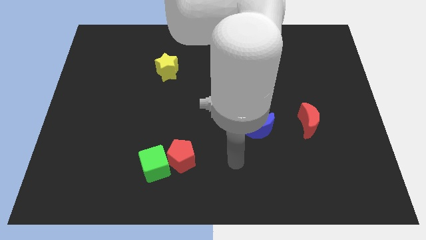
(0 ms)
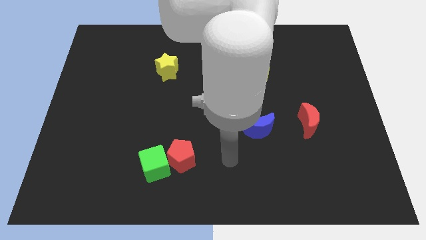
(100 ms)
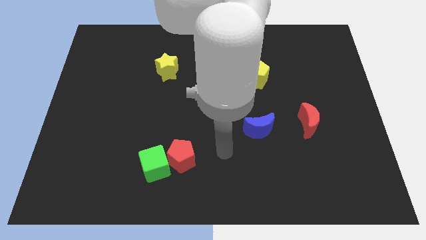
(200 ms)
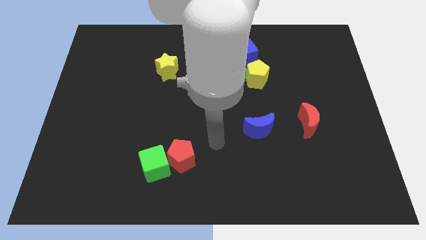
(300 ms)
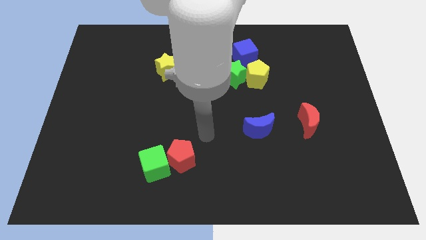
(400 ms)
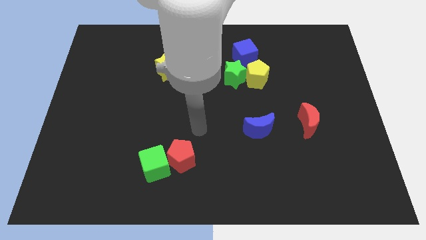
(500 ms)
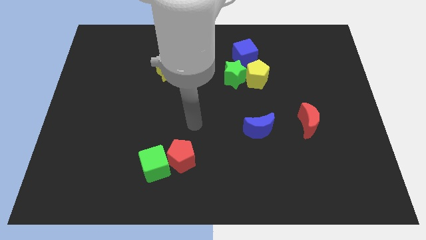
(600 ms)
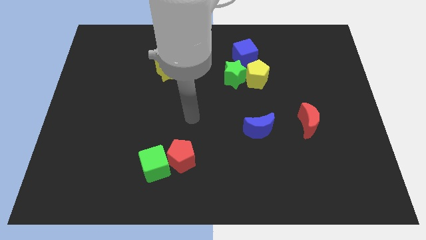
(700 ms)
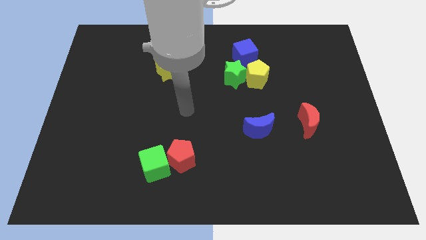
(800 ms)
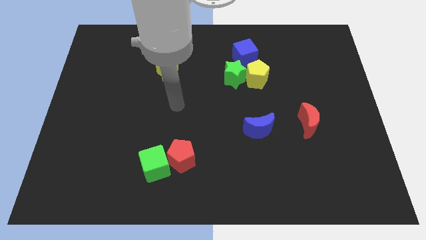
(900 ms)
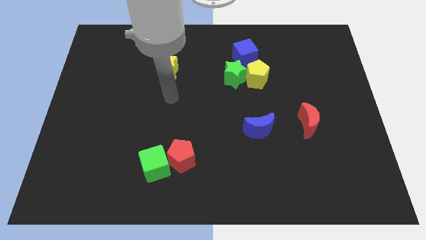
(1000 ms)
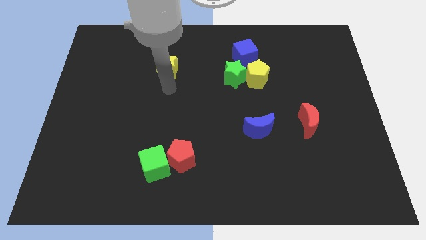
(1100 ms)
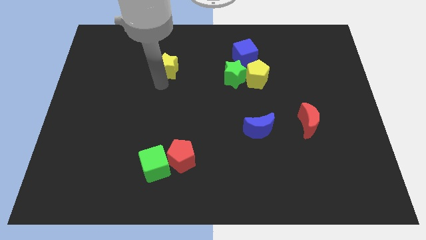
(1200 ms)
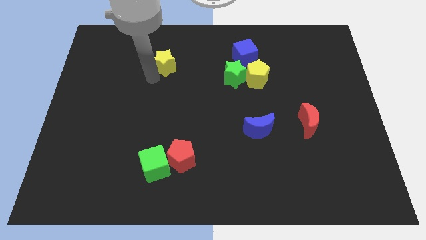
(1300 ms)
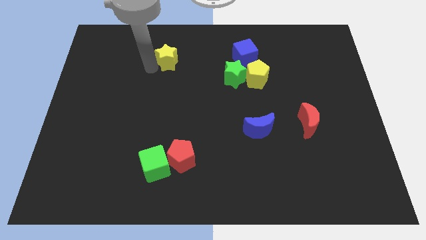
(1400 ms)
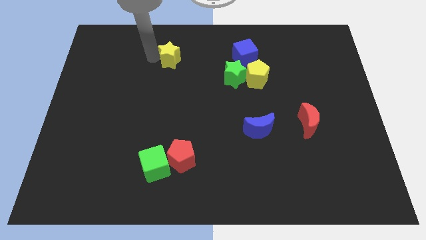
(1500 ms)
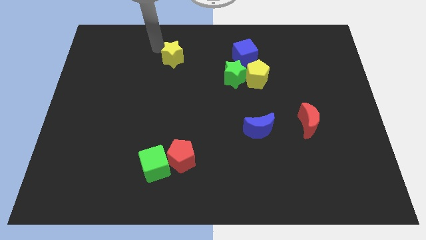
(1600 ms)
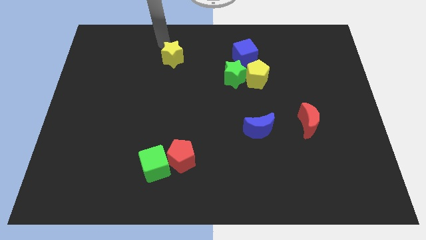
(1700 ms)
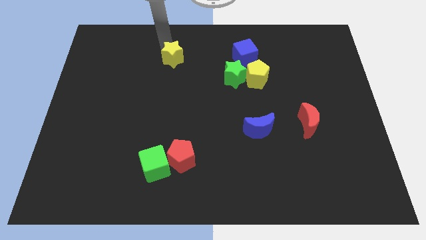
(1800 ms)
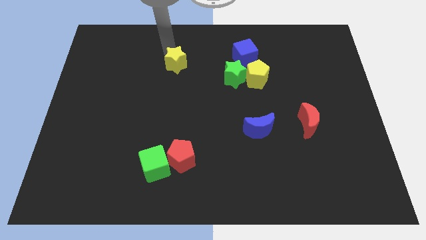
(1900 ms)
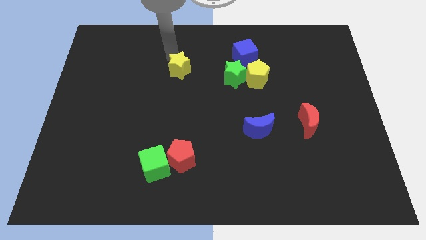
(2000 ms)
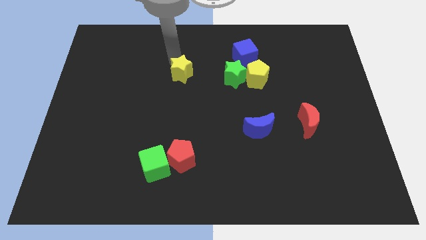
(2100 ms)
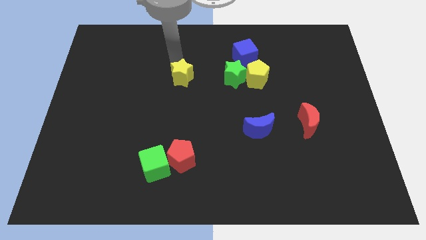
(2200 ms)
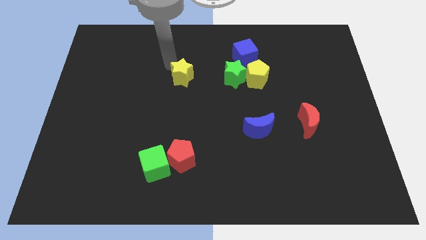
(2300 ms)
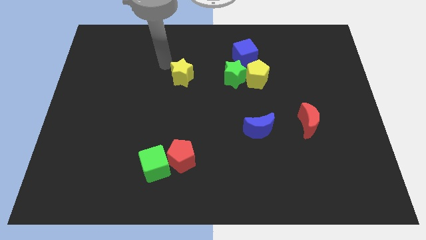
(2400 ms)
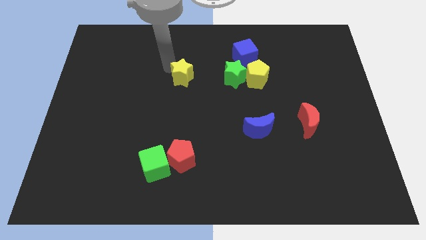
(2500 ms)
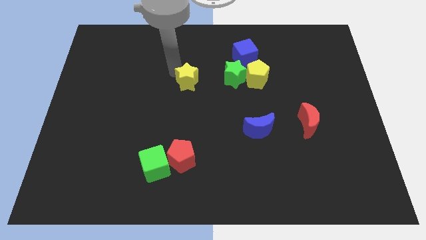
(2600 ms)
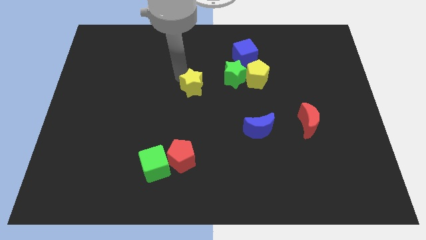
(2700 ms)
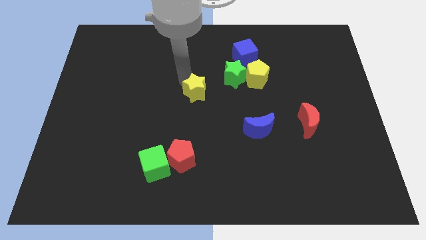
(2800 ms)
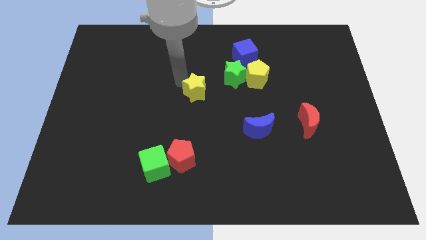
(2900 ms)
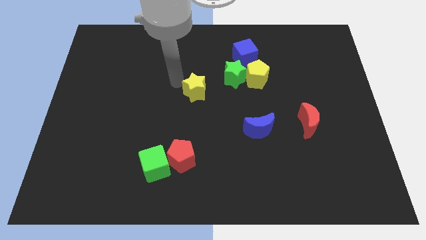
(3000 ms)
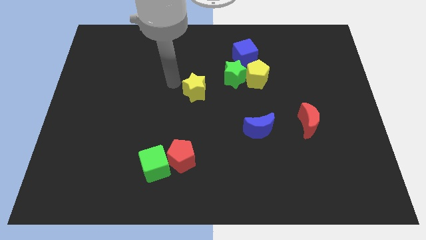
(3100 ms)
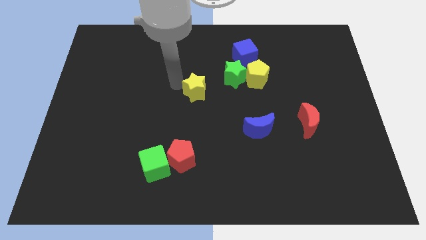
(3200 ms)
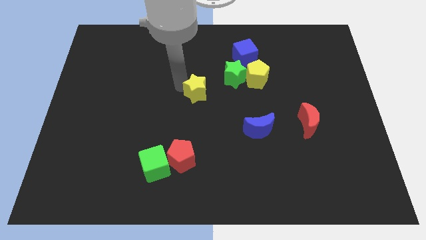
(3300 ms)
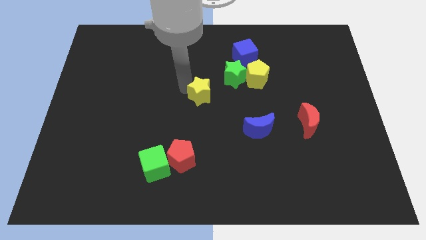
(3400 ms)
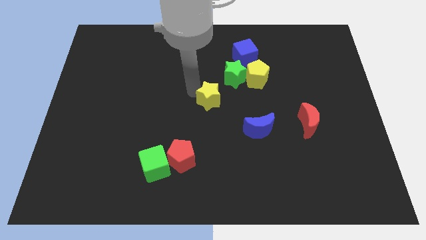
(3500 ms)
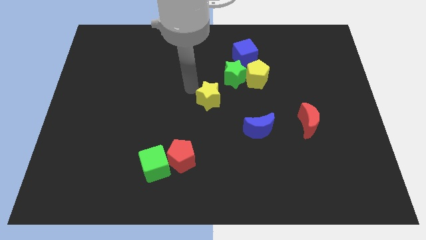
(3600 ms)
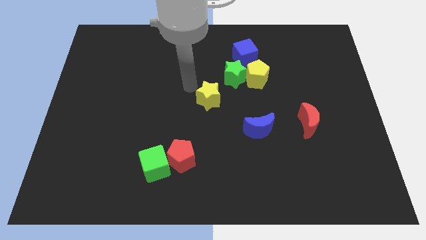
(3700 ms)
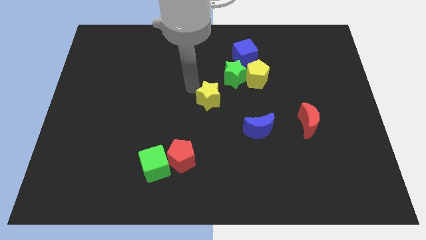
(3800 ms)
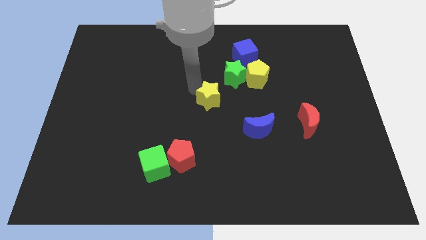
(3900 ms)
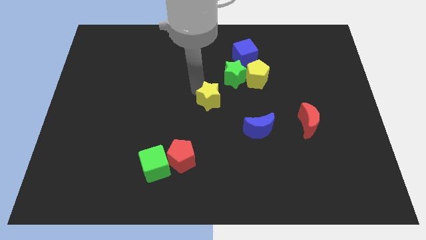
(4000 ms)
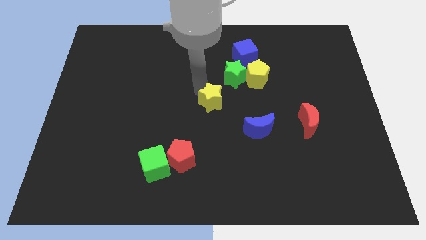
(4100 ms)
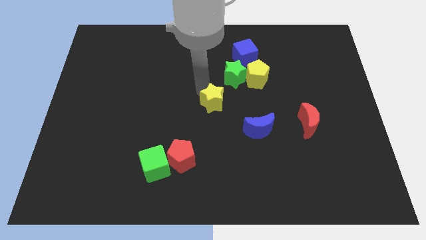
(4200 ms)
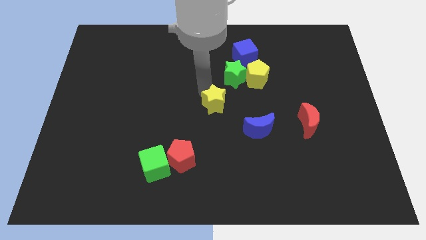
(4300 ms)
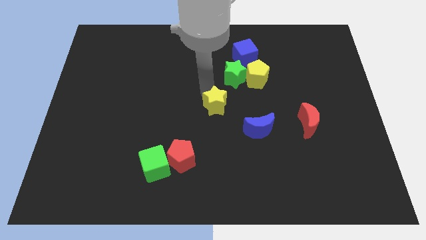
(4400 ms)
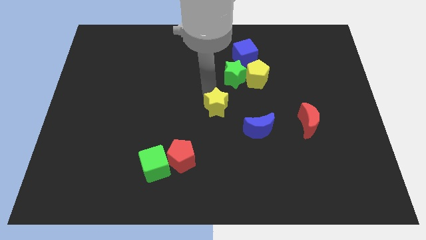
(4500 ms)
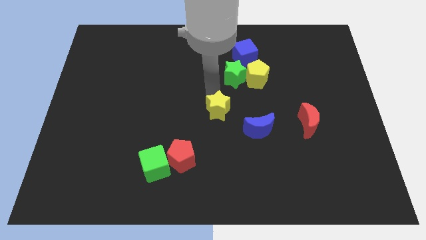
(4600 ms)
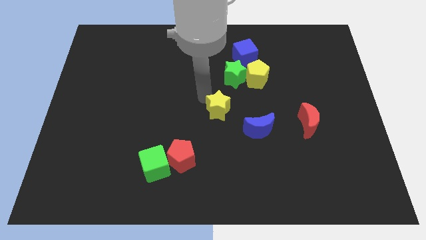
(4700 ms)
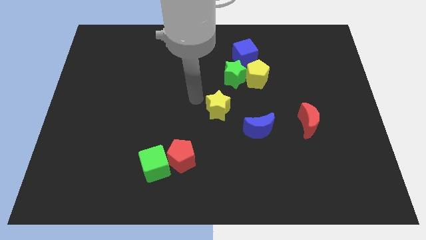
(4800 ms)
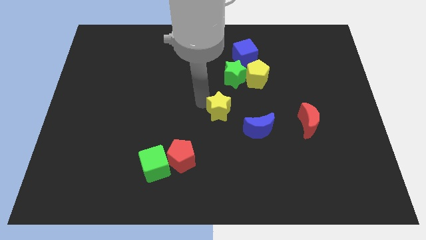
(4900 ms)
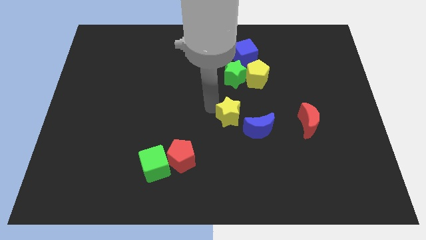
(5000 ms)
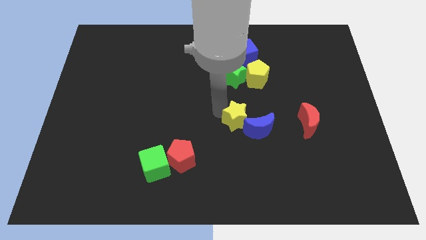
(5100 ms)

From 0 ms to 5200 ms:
move the yellow star next to the blue moon

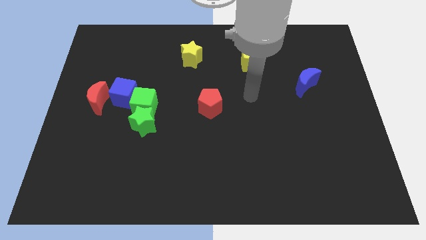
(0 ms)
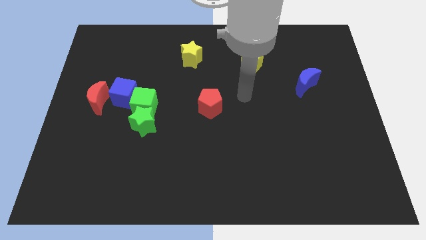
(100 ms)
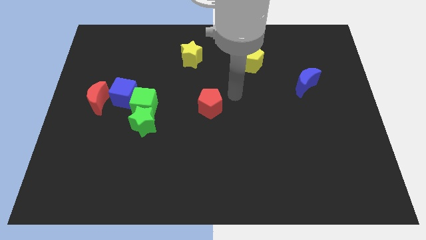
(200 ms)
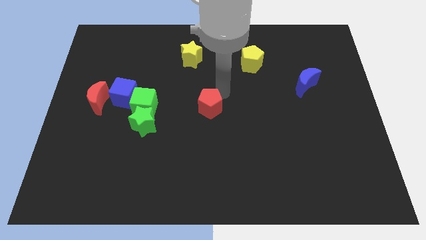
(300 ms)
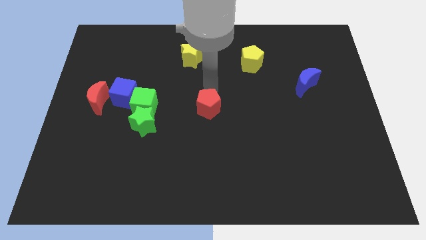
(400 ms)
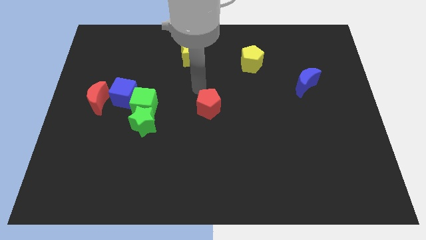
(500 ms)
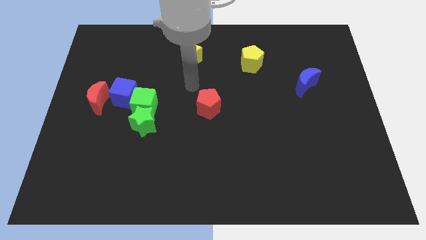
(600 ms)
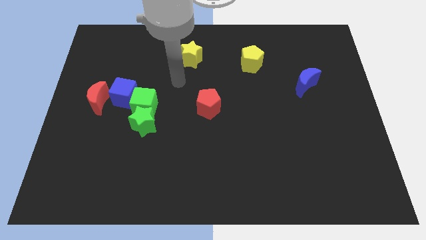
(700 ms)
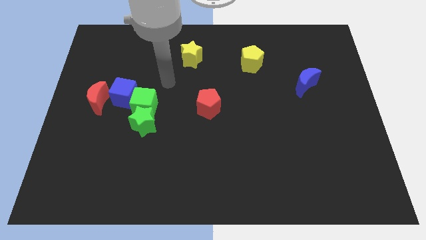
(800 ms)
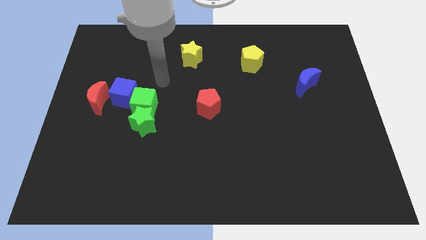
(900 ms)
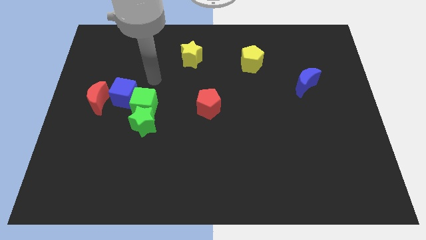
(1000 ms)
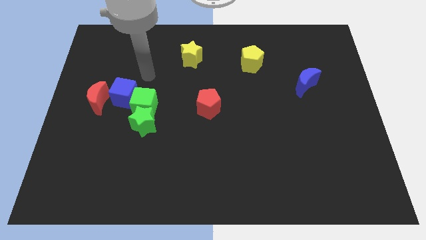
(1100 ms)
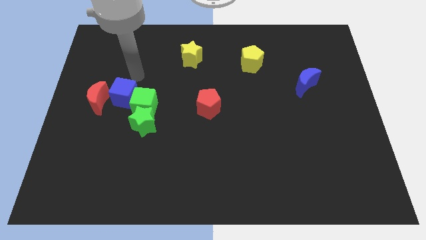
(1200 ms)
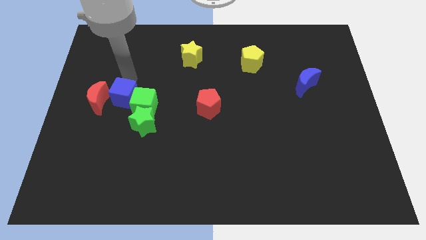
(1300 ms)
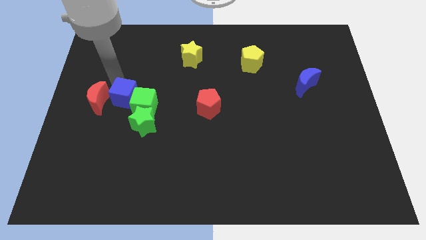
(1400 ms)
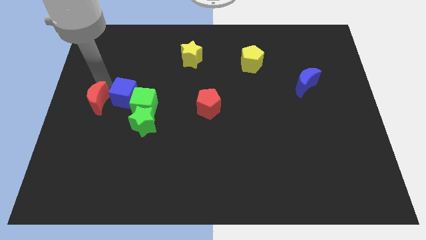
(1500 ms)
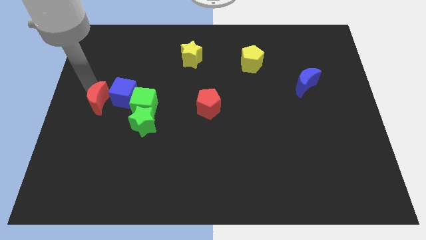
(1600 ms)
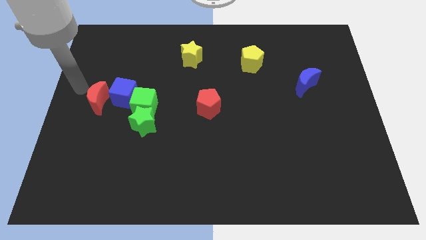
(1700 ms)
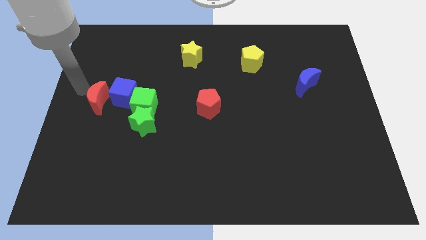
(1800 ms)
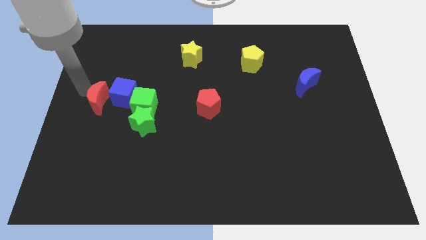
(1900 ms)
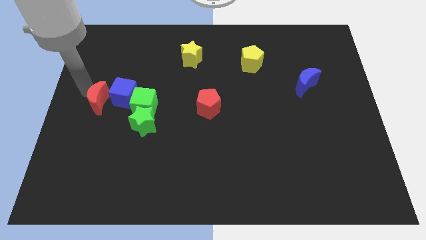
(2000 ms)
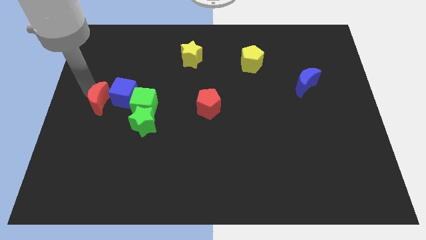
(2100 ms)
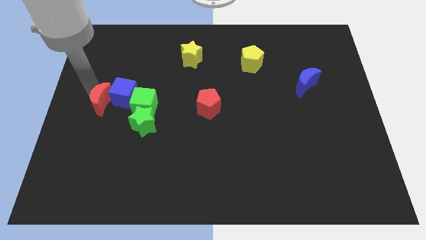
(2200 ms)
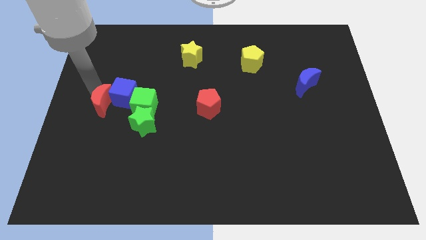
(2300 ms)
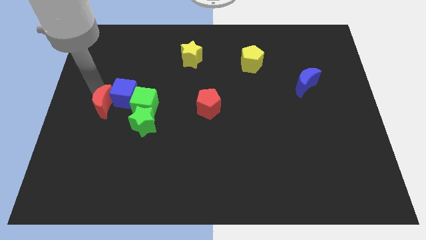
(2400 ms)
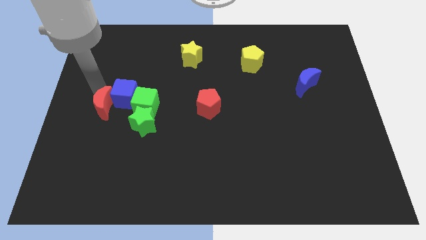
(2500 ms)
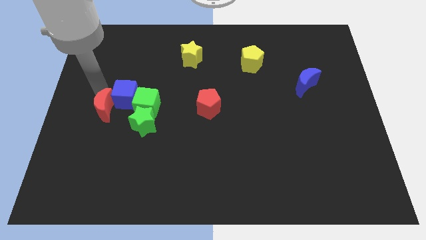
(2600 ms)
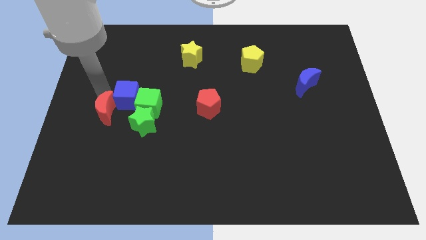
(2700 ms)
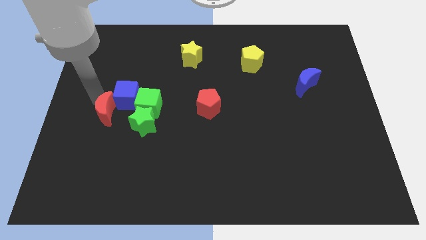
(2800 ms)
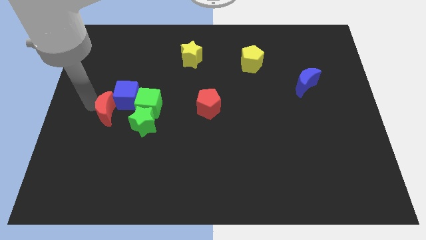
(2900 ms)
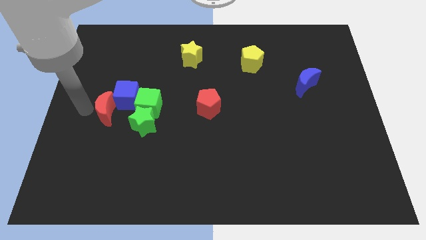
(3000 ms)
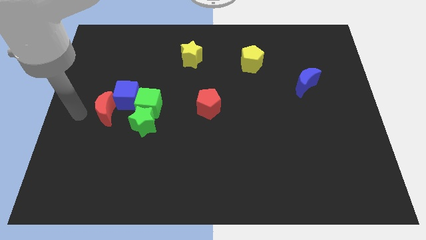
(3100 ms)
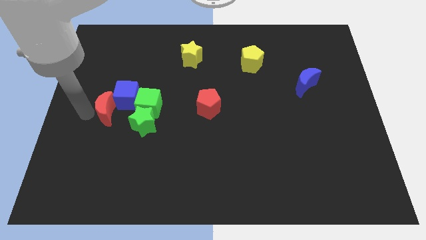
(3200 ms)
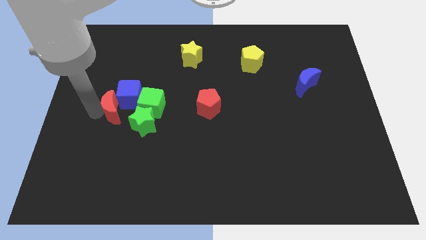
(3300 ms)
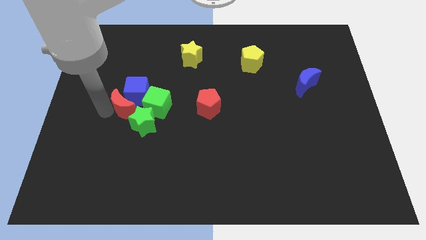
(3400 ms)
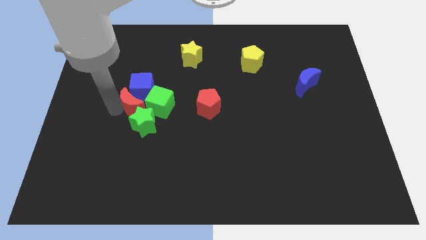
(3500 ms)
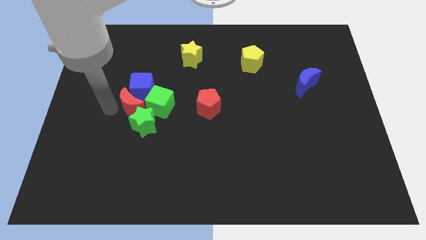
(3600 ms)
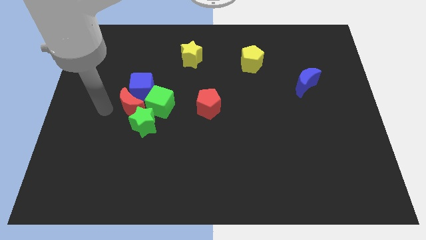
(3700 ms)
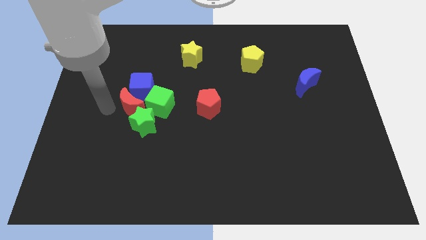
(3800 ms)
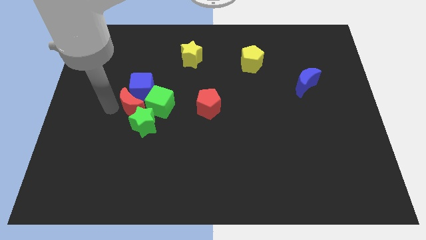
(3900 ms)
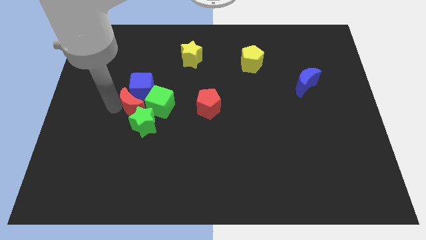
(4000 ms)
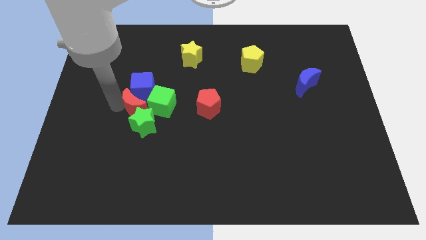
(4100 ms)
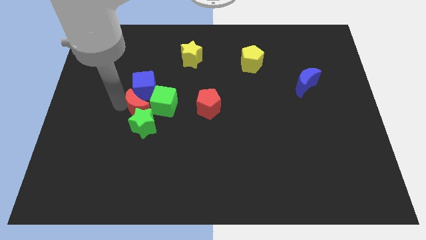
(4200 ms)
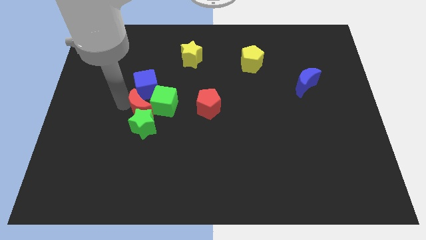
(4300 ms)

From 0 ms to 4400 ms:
slide the red moon towards the green cube
